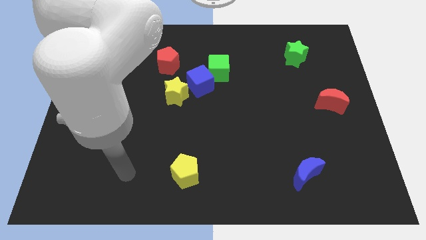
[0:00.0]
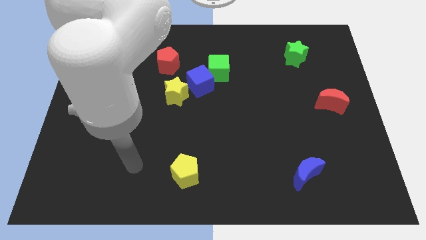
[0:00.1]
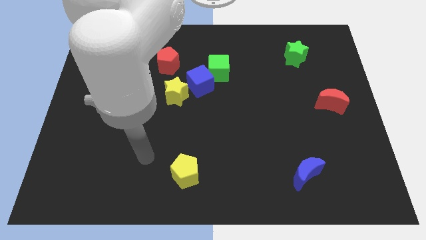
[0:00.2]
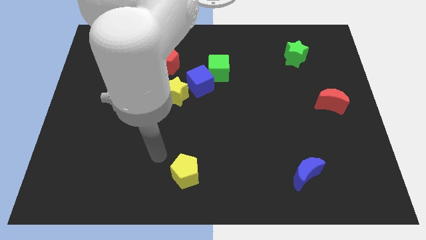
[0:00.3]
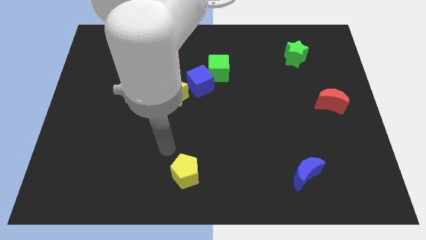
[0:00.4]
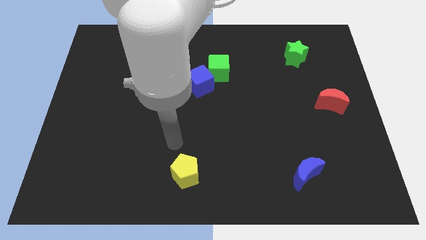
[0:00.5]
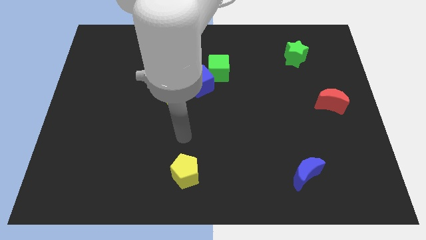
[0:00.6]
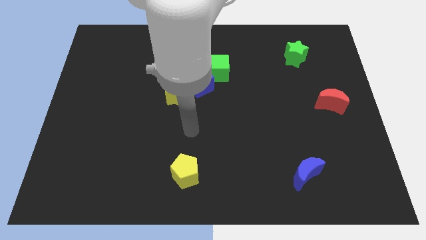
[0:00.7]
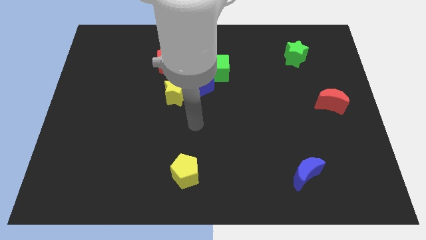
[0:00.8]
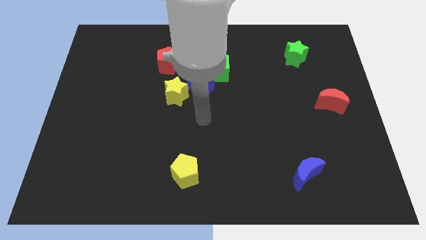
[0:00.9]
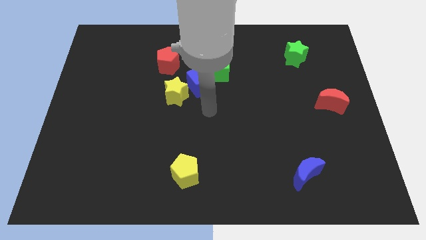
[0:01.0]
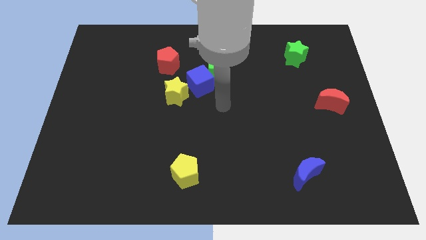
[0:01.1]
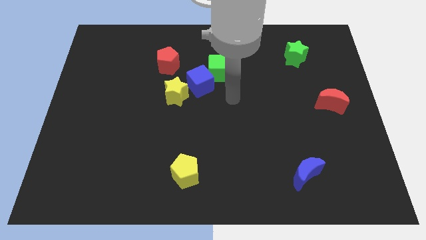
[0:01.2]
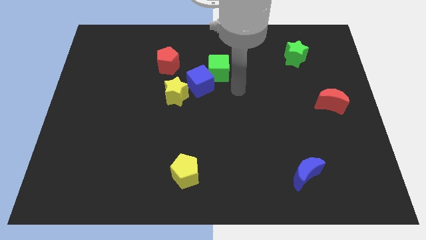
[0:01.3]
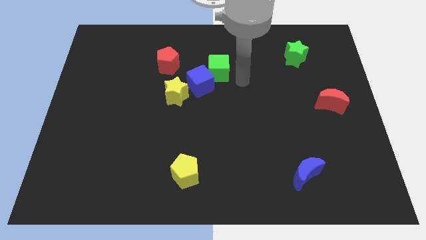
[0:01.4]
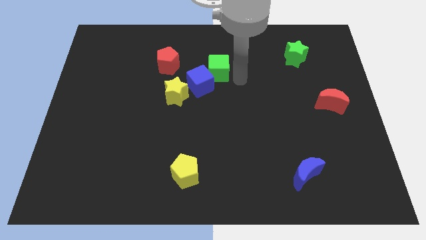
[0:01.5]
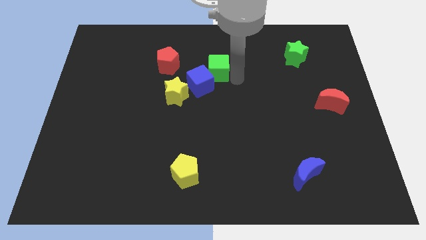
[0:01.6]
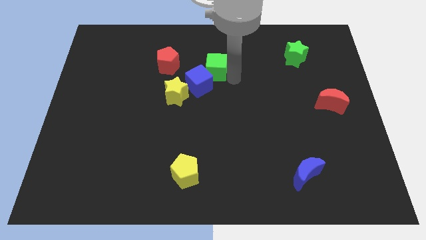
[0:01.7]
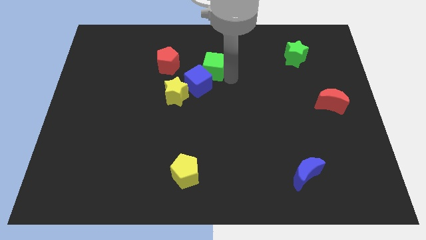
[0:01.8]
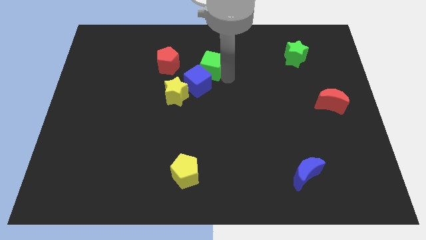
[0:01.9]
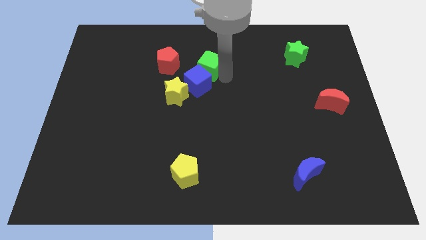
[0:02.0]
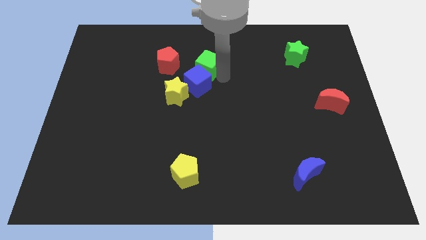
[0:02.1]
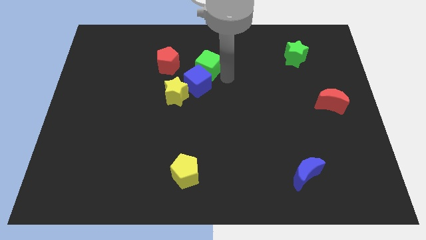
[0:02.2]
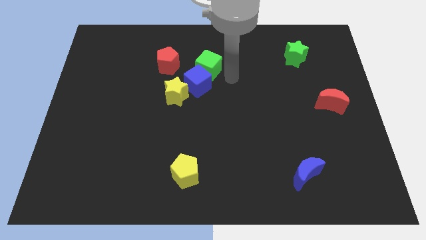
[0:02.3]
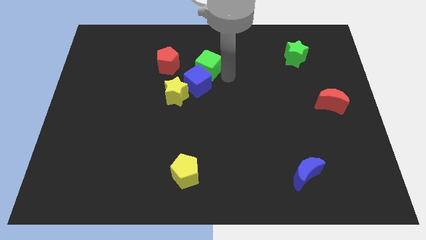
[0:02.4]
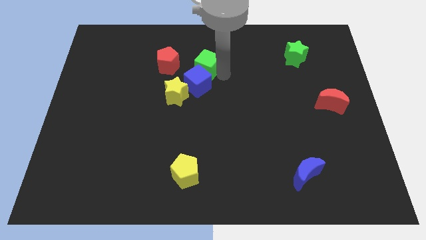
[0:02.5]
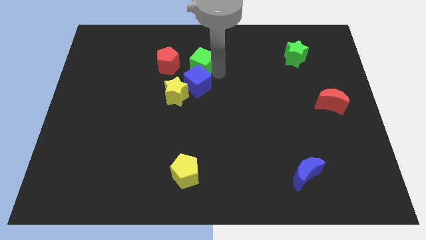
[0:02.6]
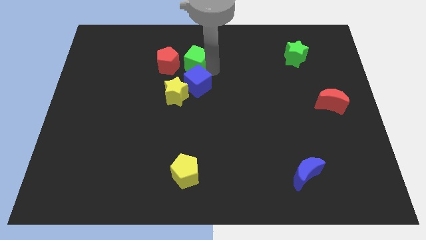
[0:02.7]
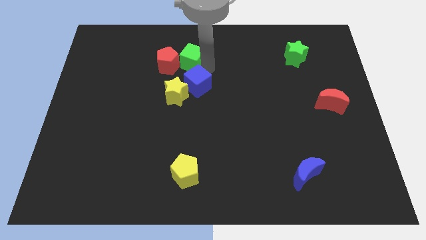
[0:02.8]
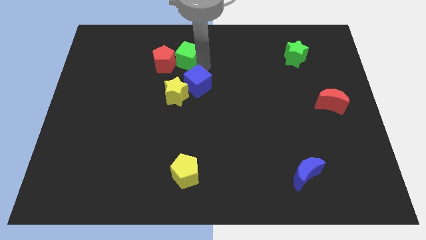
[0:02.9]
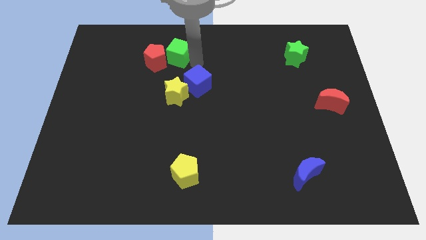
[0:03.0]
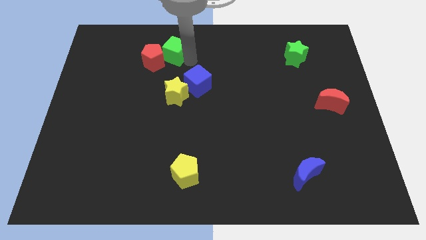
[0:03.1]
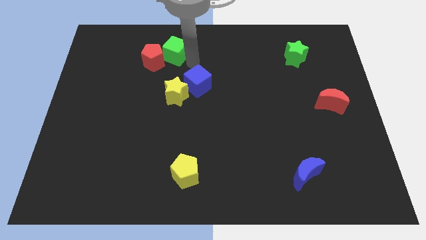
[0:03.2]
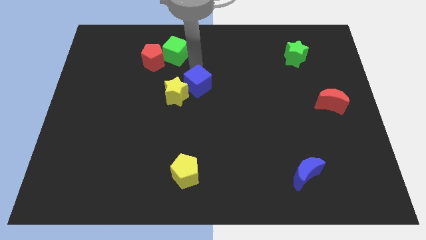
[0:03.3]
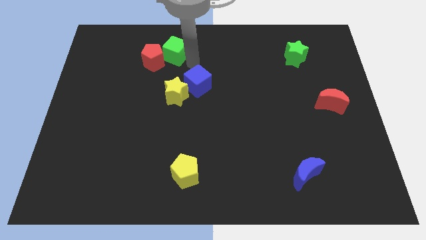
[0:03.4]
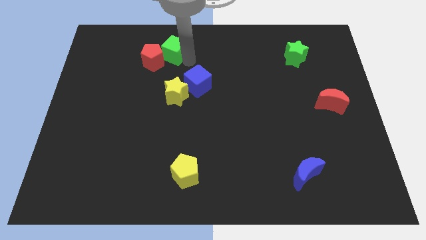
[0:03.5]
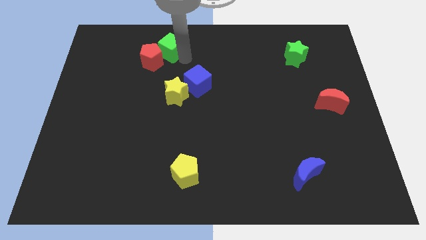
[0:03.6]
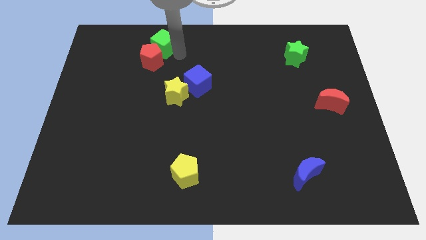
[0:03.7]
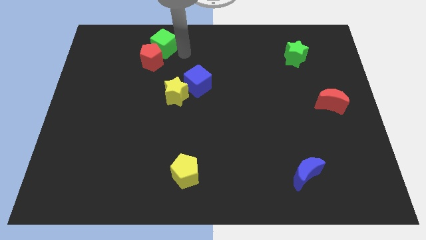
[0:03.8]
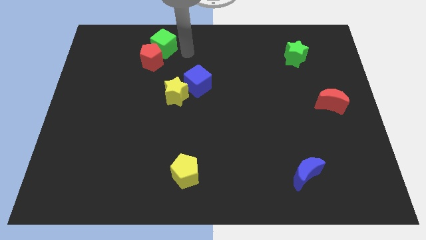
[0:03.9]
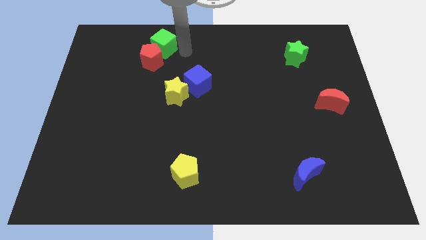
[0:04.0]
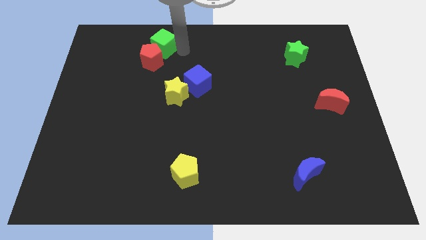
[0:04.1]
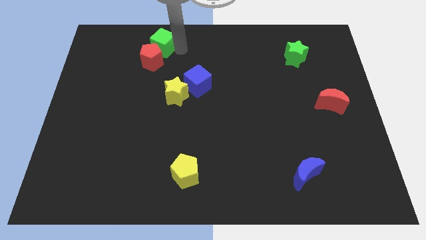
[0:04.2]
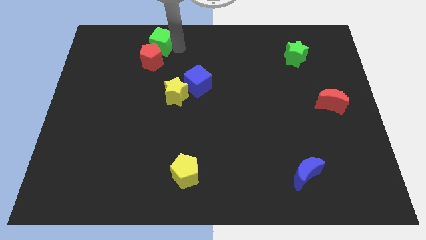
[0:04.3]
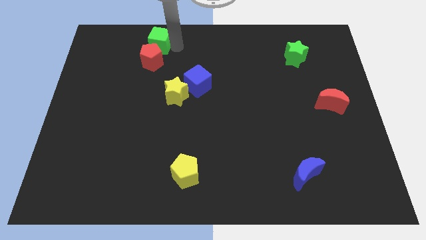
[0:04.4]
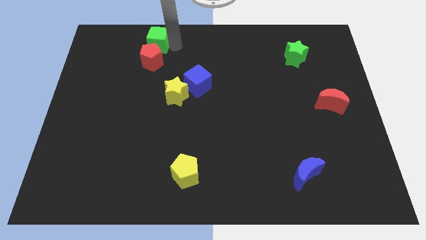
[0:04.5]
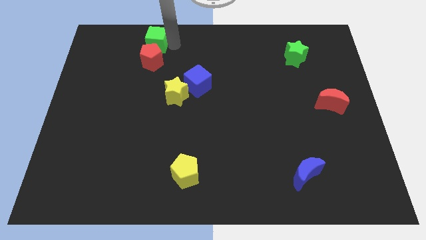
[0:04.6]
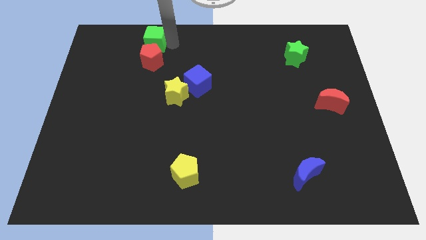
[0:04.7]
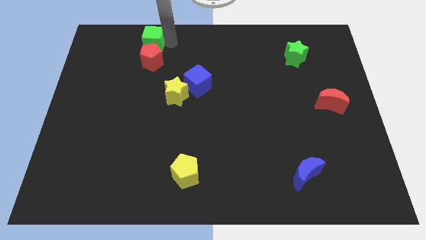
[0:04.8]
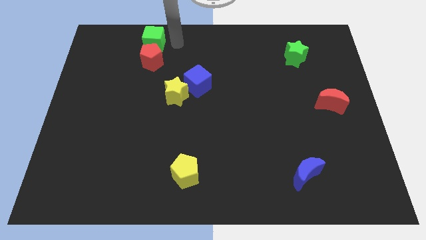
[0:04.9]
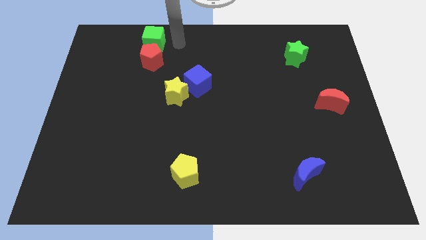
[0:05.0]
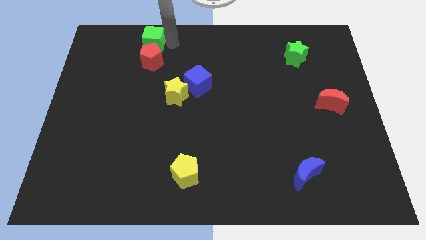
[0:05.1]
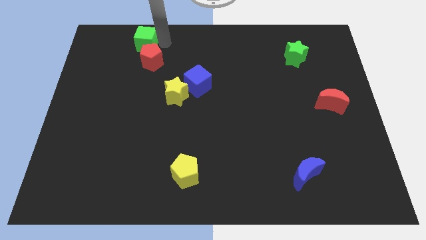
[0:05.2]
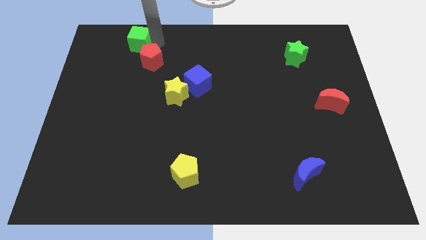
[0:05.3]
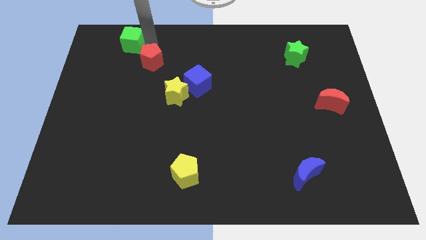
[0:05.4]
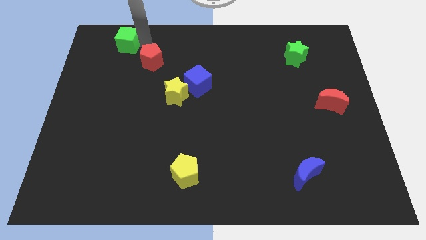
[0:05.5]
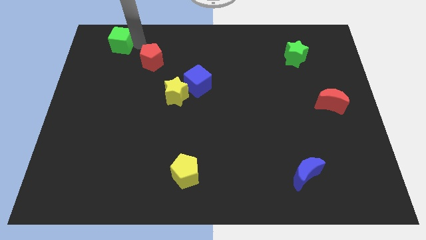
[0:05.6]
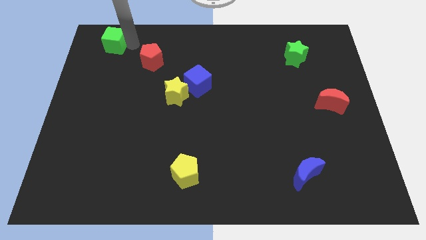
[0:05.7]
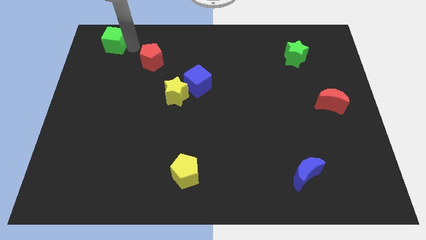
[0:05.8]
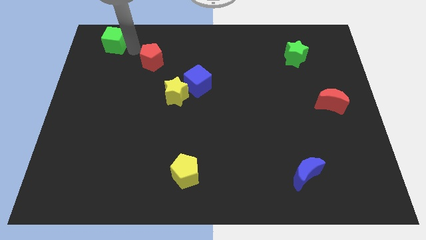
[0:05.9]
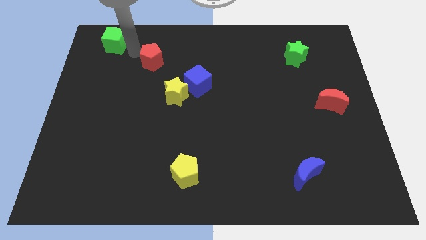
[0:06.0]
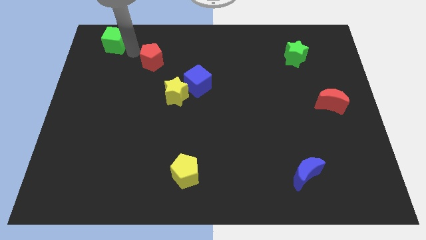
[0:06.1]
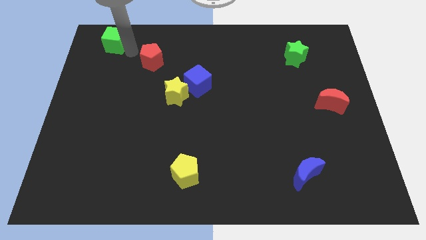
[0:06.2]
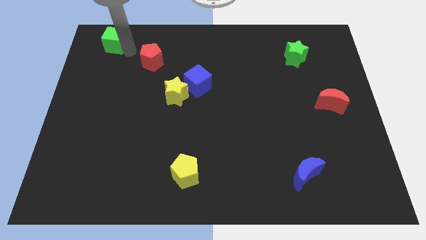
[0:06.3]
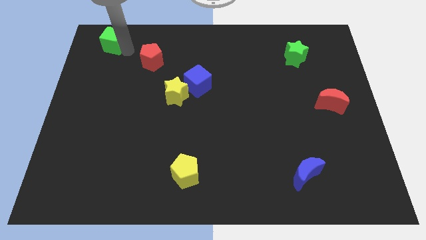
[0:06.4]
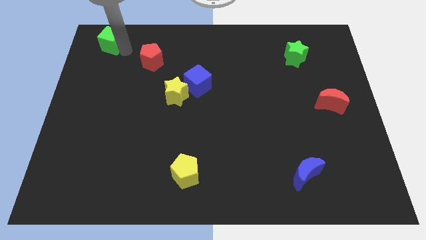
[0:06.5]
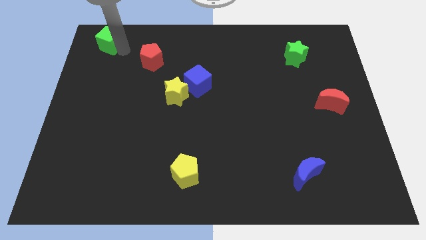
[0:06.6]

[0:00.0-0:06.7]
slide the green cube to the top left of the board
